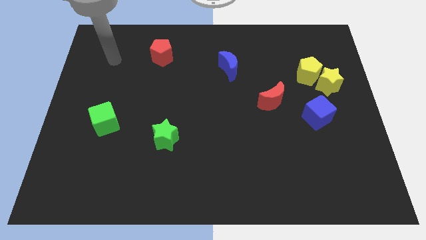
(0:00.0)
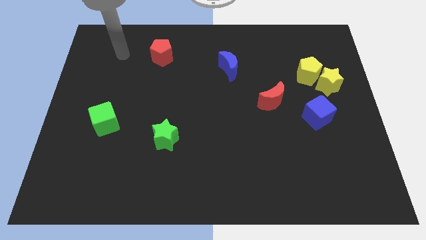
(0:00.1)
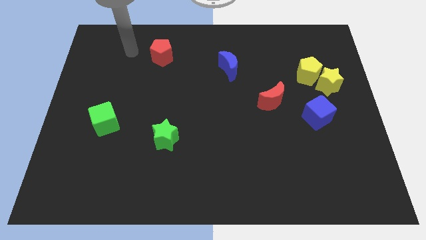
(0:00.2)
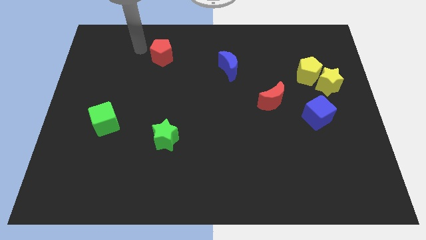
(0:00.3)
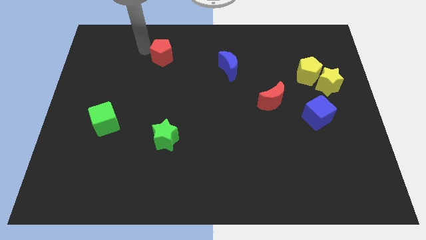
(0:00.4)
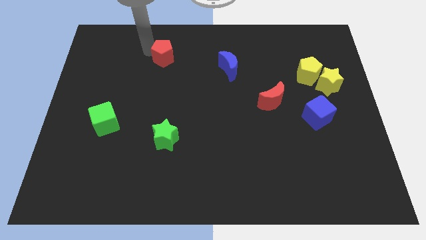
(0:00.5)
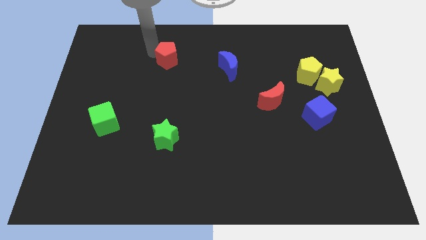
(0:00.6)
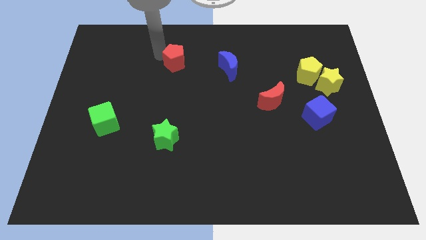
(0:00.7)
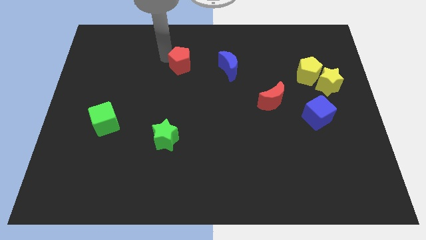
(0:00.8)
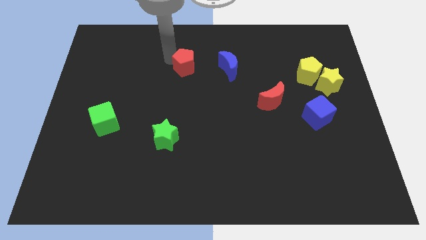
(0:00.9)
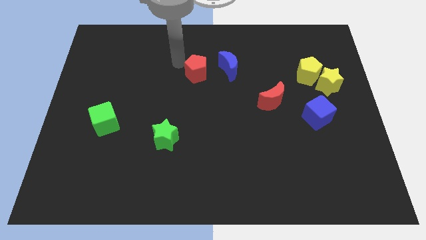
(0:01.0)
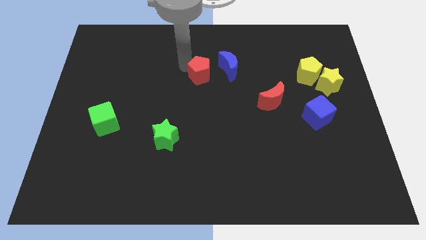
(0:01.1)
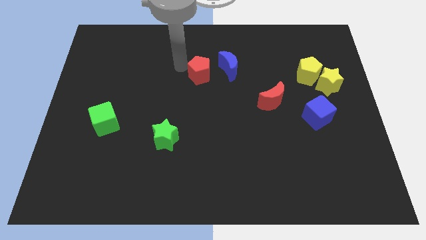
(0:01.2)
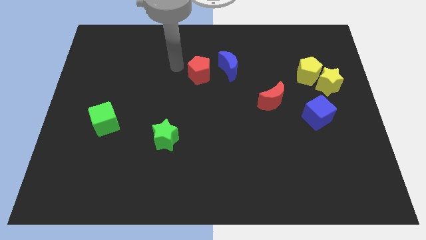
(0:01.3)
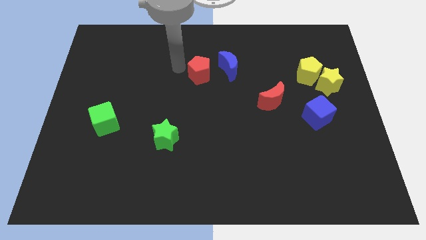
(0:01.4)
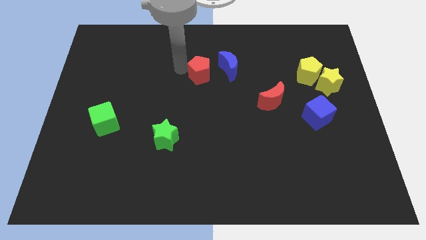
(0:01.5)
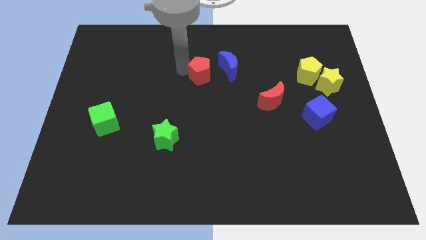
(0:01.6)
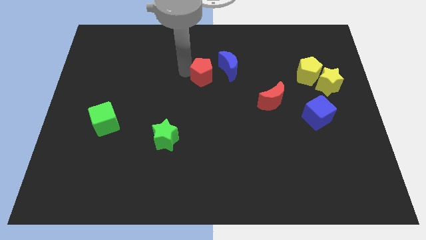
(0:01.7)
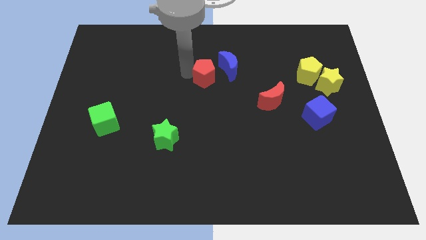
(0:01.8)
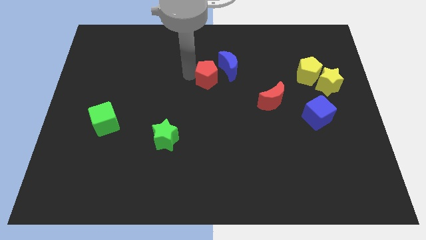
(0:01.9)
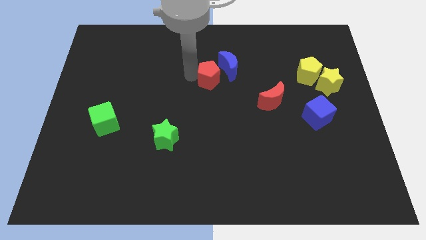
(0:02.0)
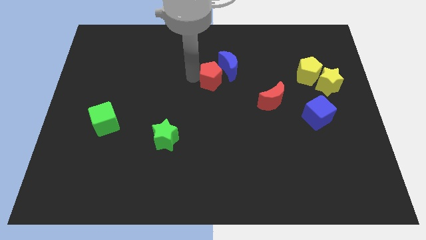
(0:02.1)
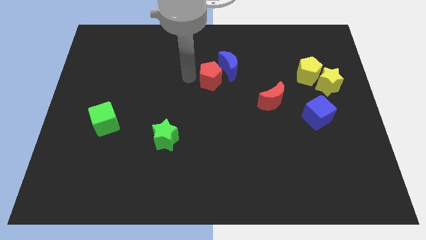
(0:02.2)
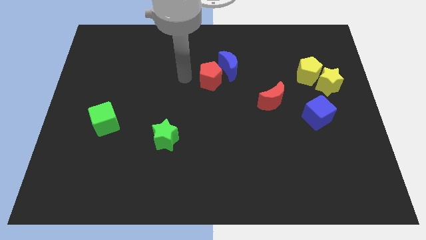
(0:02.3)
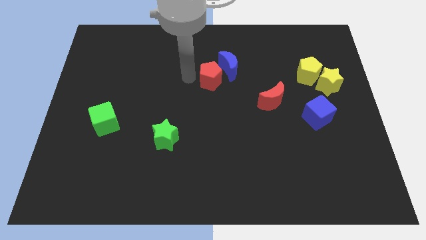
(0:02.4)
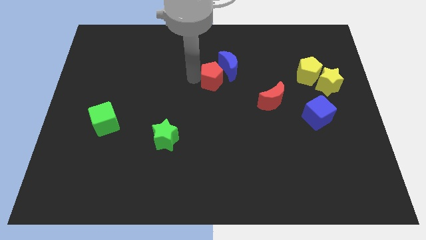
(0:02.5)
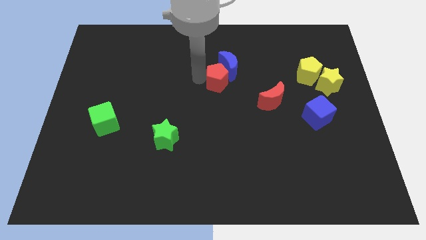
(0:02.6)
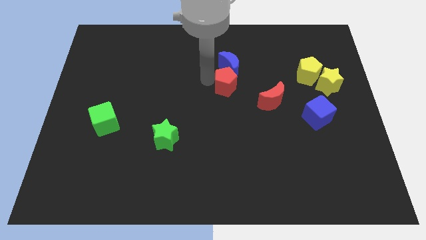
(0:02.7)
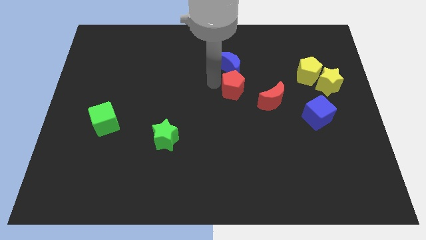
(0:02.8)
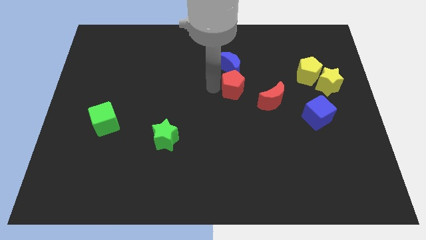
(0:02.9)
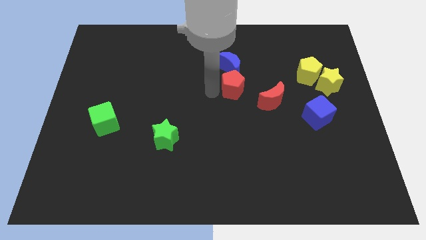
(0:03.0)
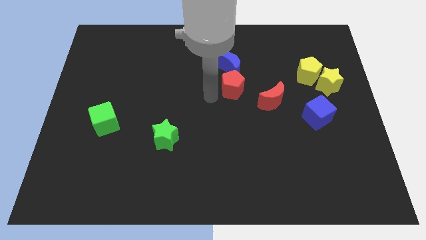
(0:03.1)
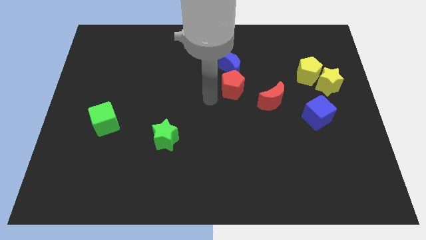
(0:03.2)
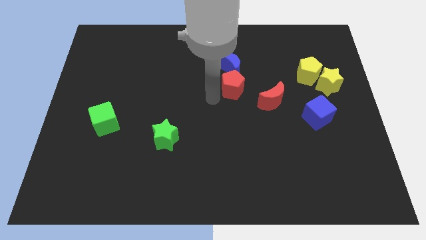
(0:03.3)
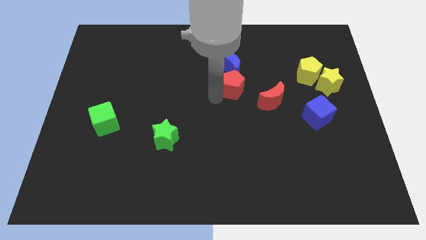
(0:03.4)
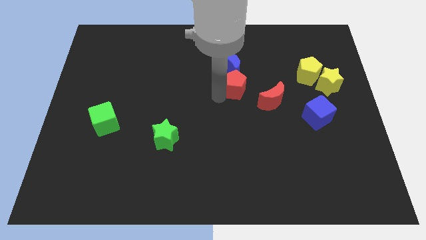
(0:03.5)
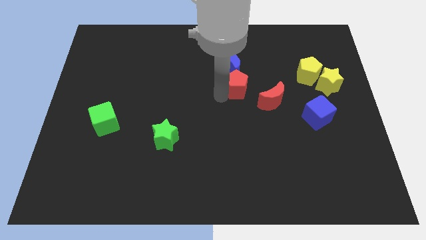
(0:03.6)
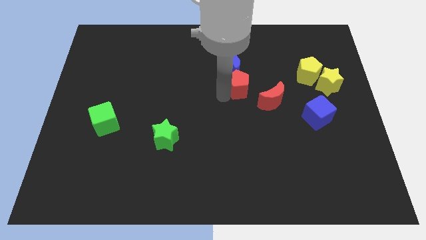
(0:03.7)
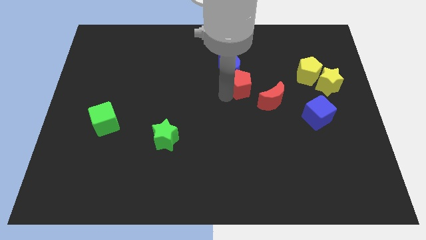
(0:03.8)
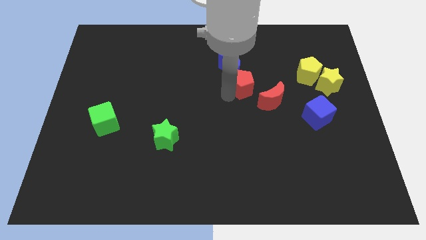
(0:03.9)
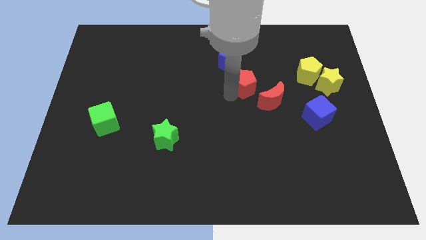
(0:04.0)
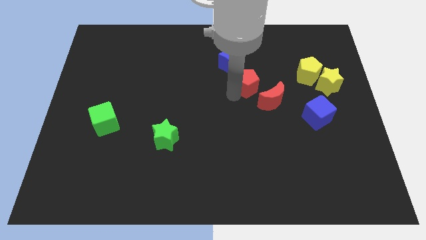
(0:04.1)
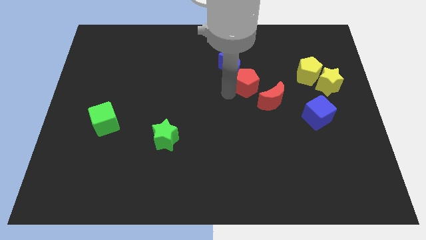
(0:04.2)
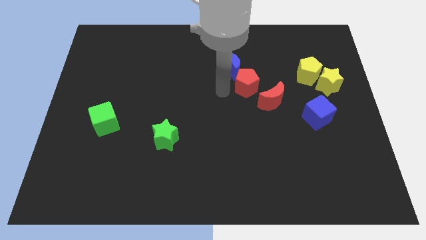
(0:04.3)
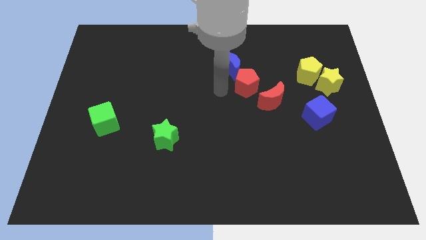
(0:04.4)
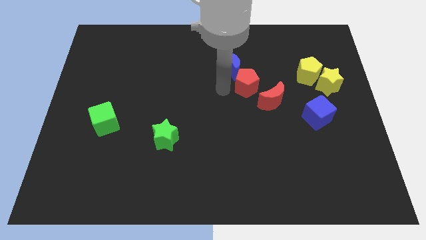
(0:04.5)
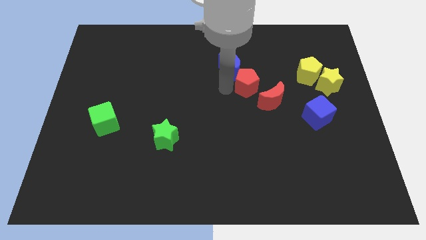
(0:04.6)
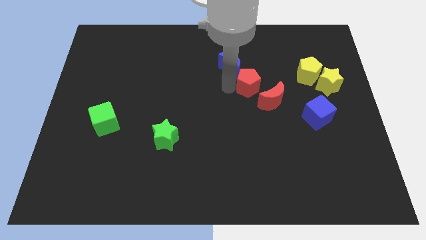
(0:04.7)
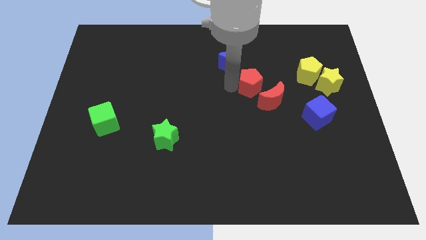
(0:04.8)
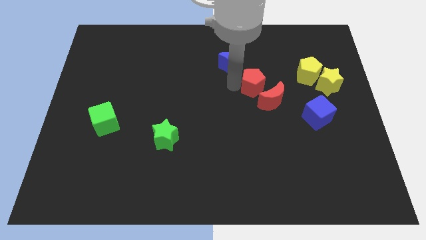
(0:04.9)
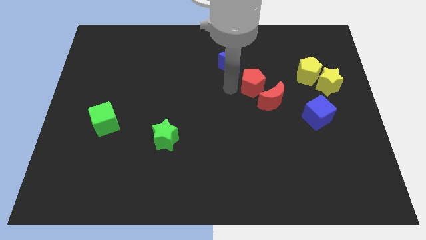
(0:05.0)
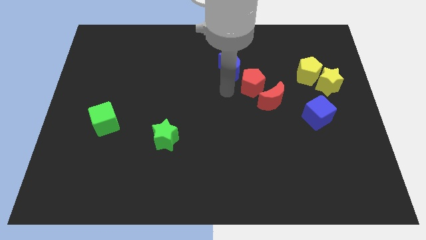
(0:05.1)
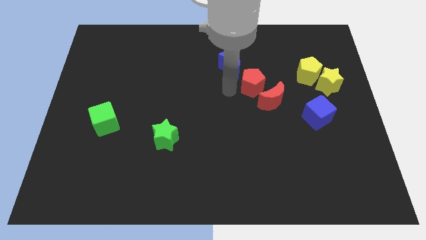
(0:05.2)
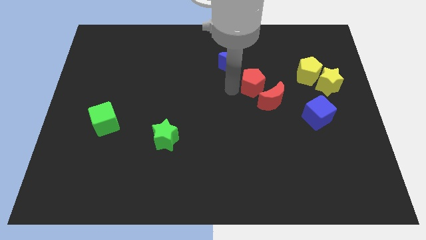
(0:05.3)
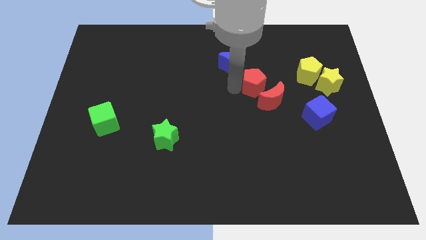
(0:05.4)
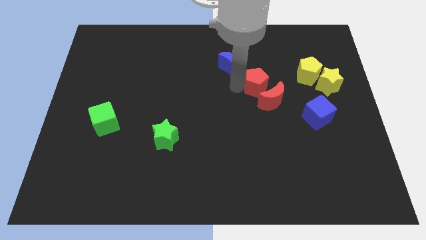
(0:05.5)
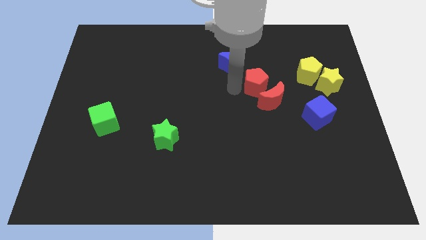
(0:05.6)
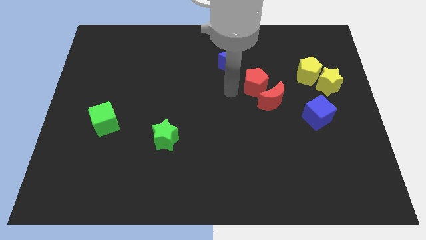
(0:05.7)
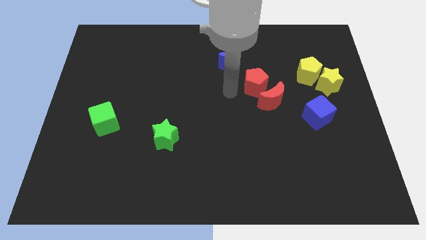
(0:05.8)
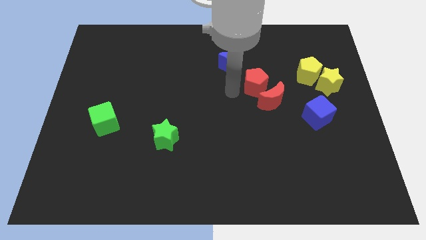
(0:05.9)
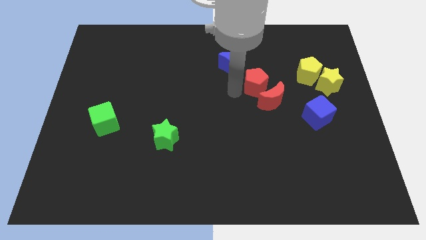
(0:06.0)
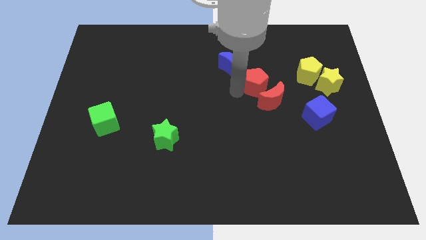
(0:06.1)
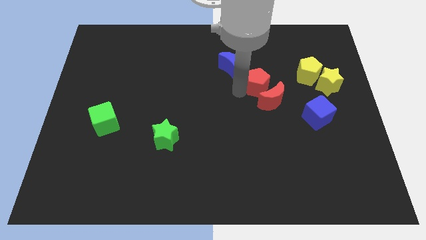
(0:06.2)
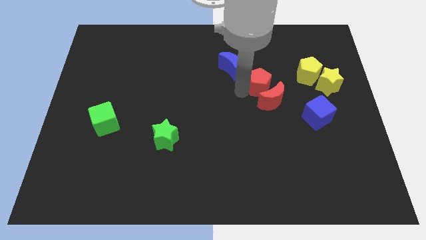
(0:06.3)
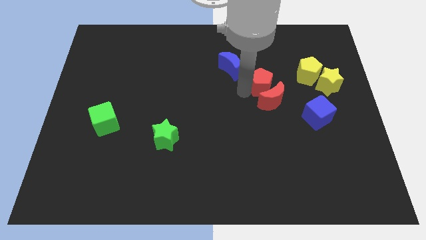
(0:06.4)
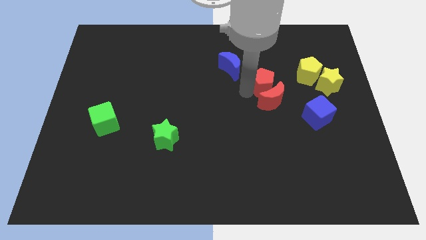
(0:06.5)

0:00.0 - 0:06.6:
put the red pentagon diagonally up and to the right of the red moon
